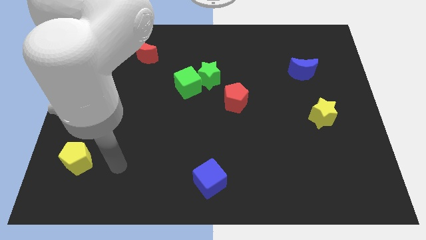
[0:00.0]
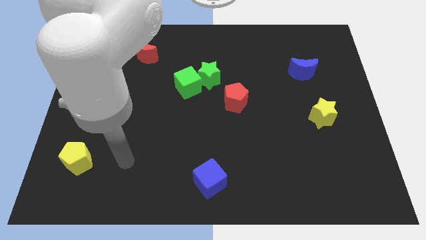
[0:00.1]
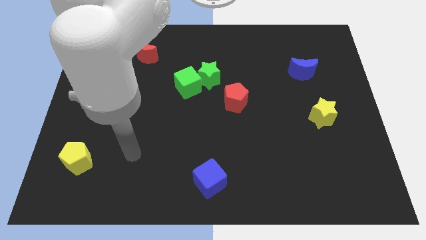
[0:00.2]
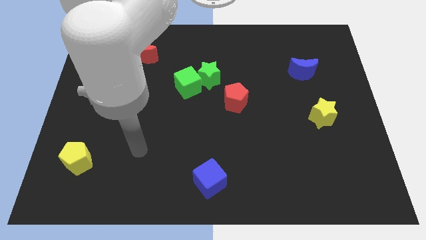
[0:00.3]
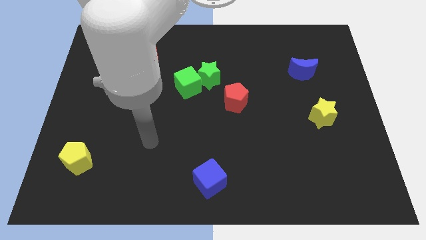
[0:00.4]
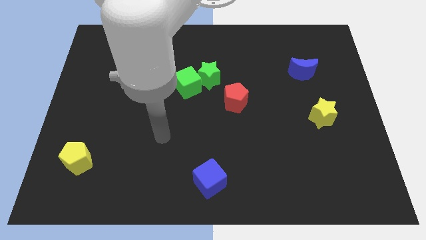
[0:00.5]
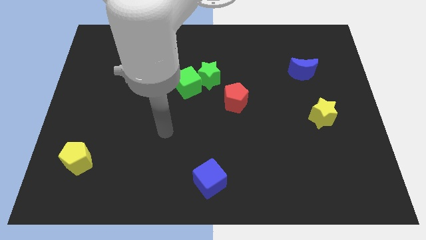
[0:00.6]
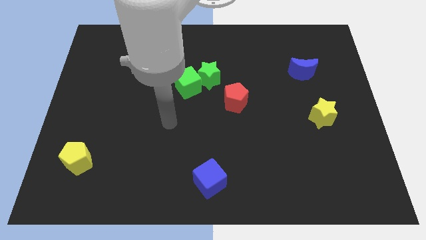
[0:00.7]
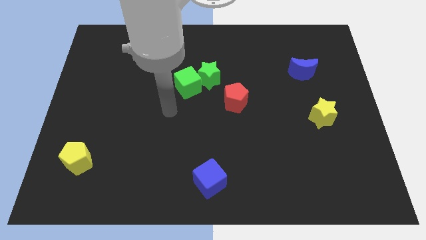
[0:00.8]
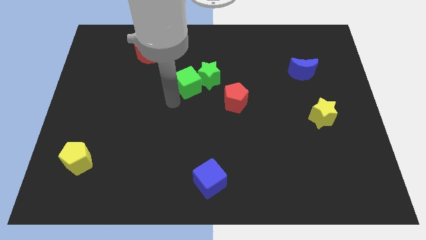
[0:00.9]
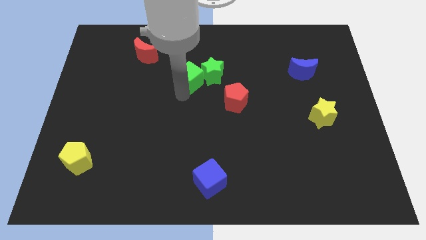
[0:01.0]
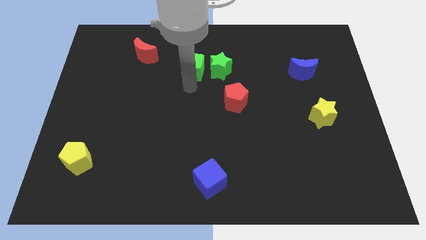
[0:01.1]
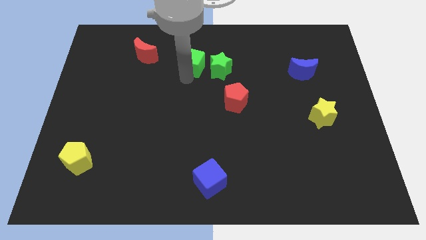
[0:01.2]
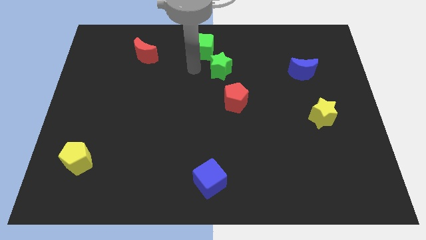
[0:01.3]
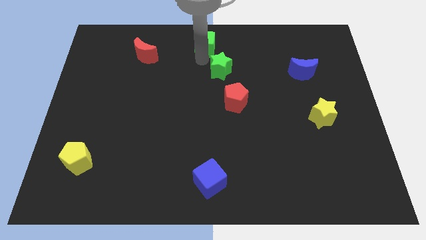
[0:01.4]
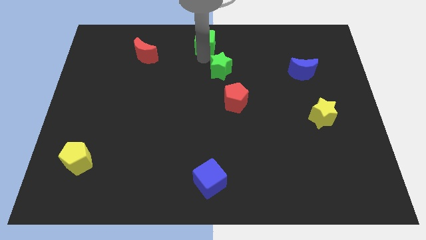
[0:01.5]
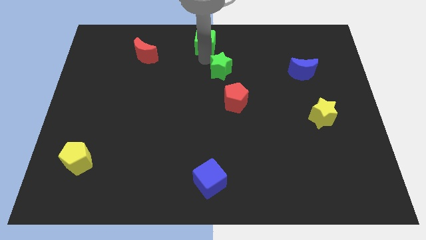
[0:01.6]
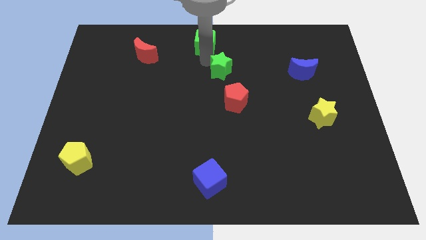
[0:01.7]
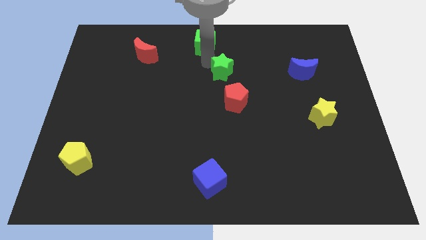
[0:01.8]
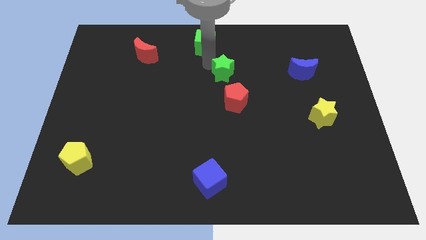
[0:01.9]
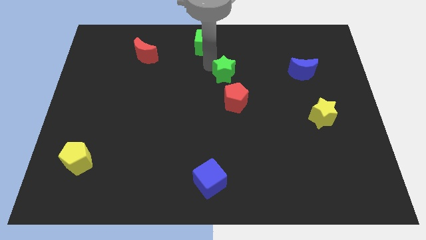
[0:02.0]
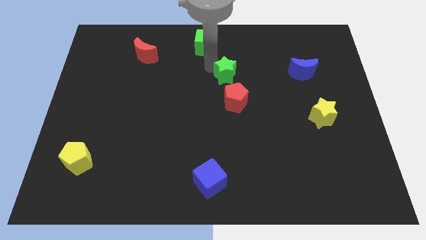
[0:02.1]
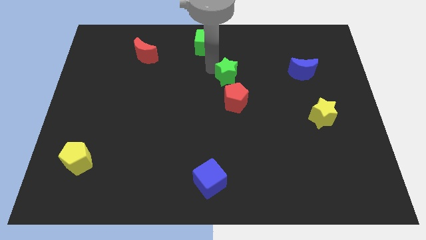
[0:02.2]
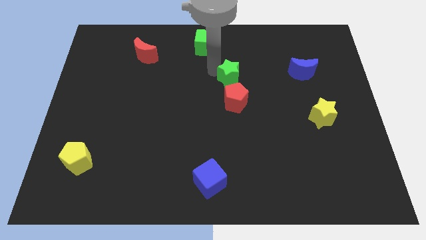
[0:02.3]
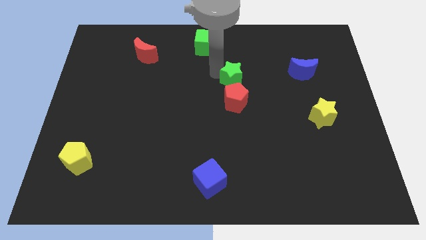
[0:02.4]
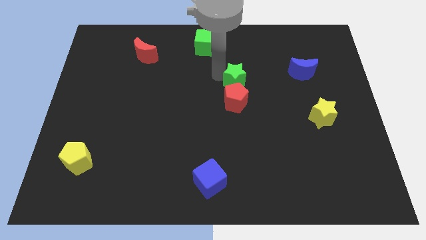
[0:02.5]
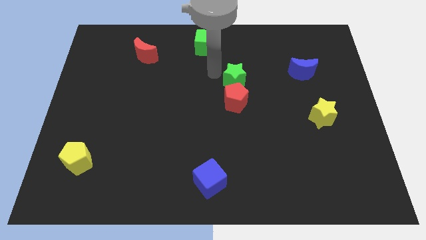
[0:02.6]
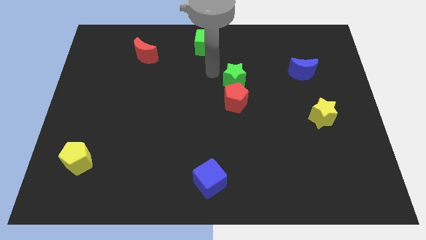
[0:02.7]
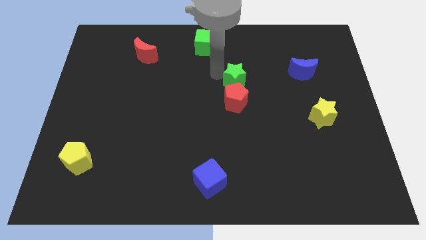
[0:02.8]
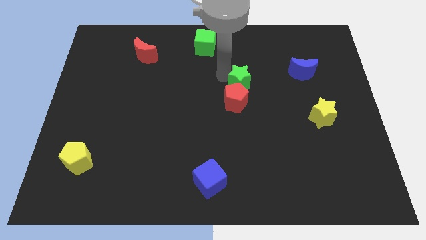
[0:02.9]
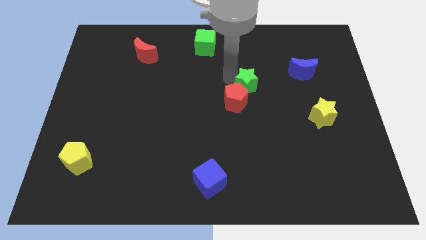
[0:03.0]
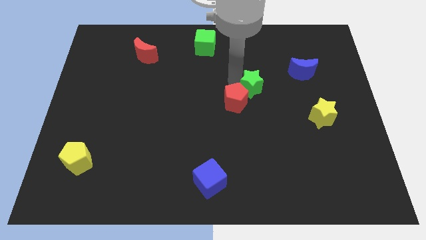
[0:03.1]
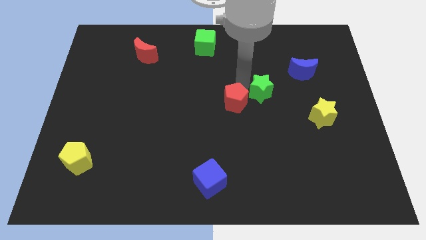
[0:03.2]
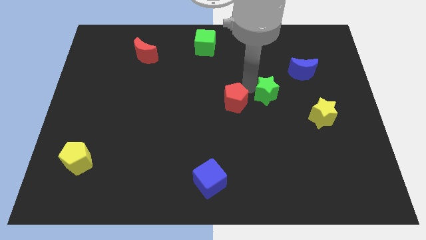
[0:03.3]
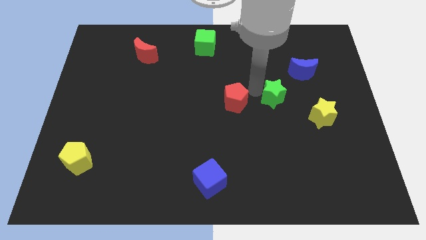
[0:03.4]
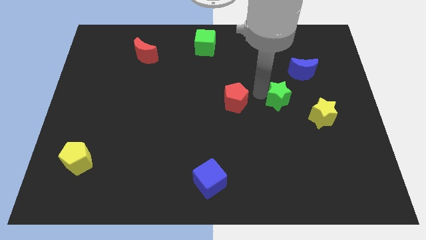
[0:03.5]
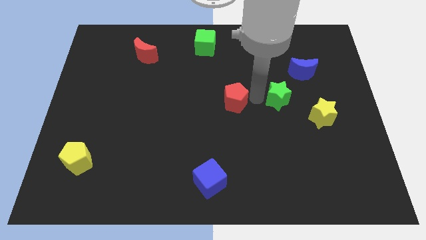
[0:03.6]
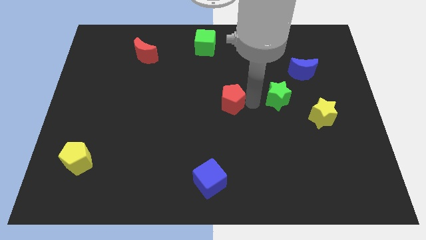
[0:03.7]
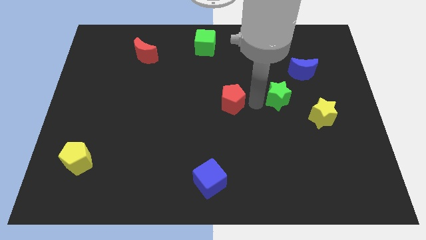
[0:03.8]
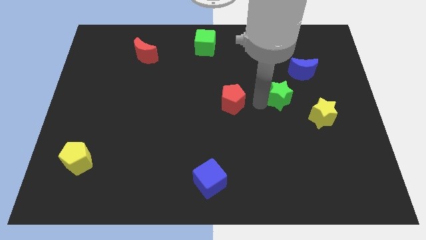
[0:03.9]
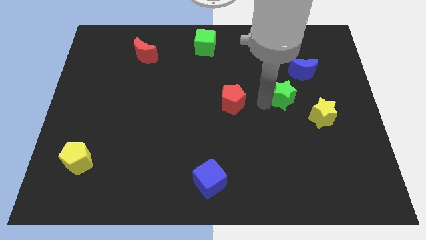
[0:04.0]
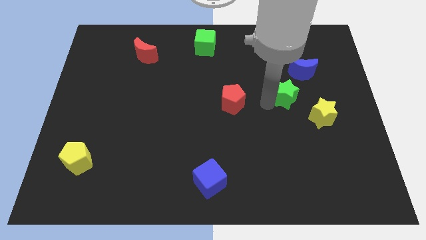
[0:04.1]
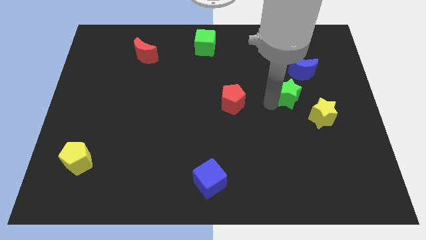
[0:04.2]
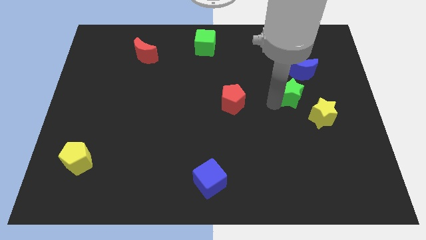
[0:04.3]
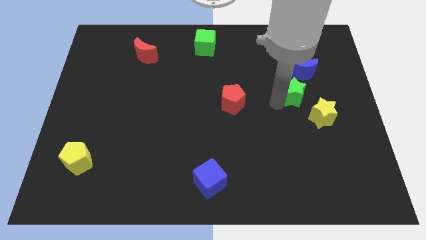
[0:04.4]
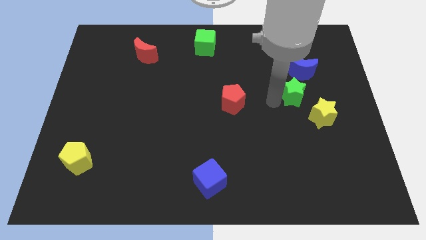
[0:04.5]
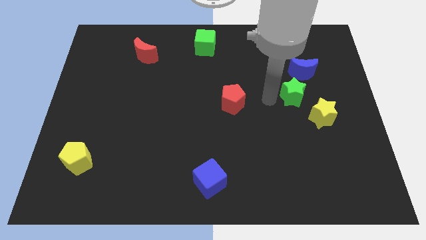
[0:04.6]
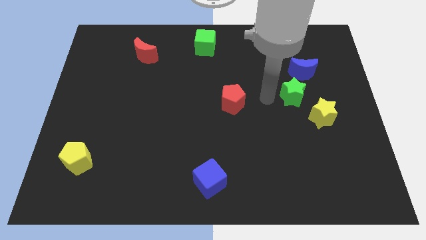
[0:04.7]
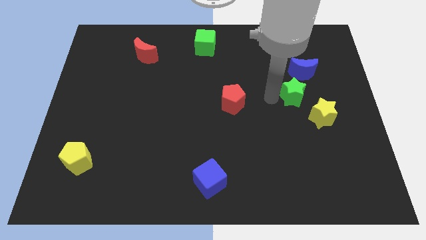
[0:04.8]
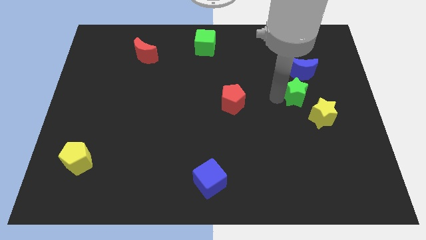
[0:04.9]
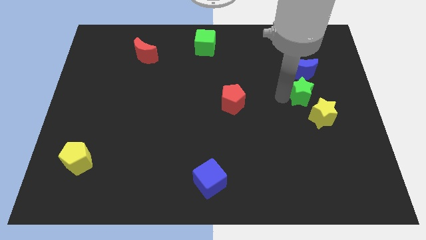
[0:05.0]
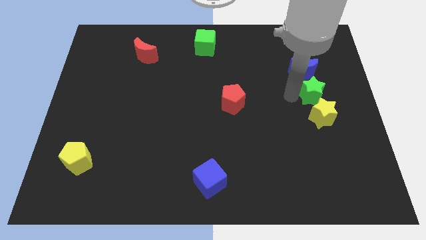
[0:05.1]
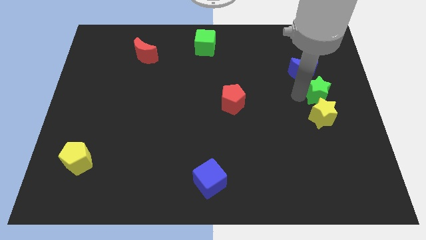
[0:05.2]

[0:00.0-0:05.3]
move the green star to the right side
